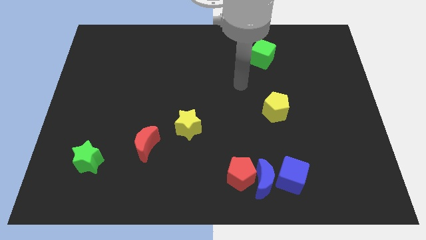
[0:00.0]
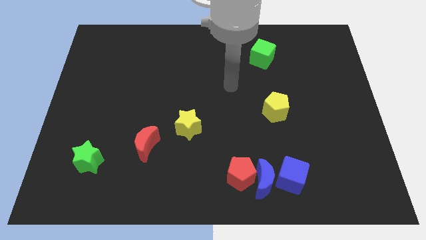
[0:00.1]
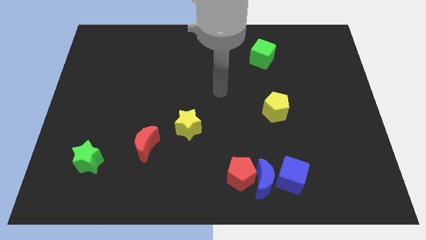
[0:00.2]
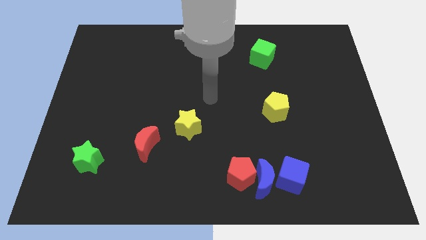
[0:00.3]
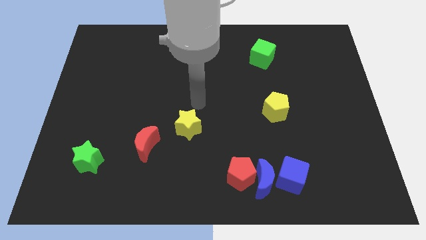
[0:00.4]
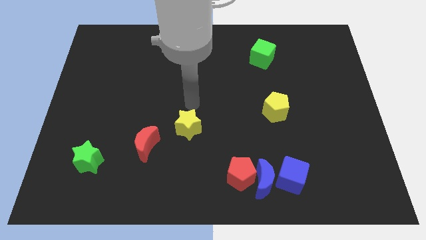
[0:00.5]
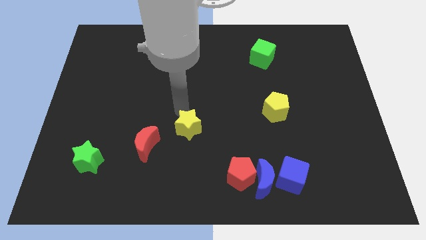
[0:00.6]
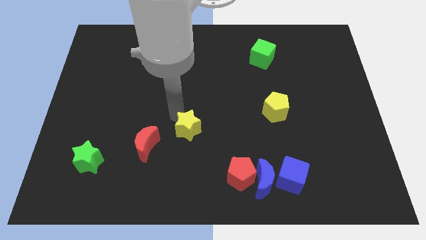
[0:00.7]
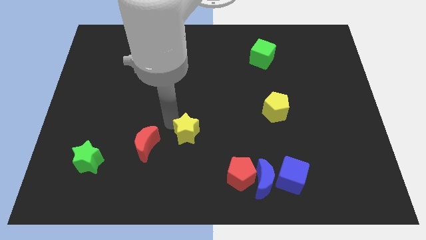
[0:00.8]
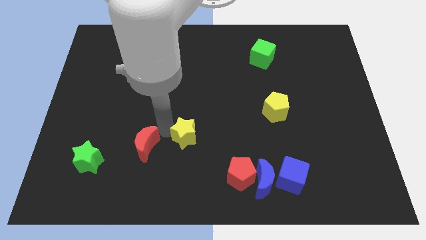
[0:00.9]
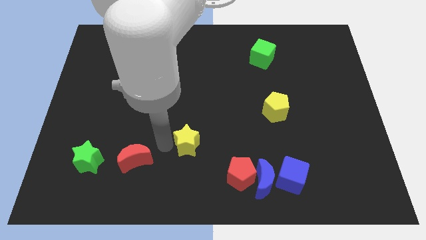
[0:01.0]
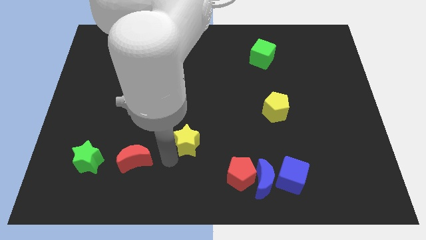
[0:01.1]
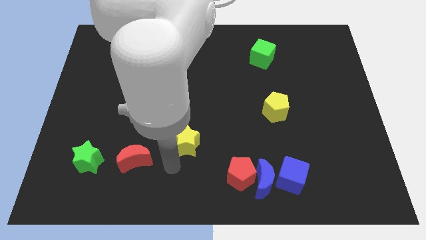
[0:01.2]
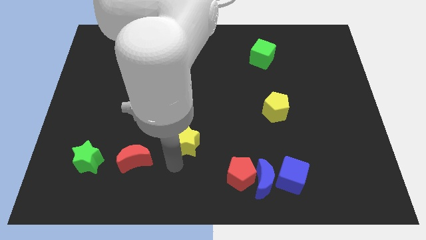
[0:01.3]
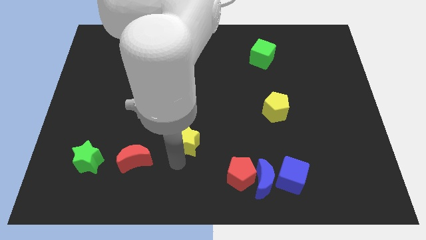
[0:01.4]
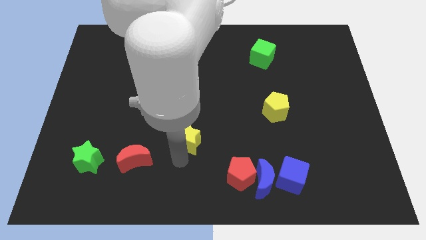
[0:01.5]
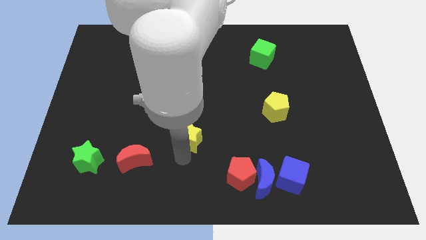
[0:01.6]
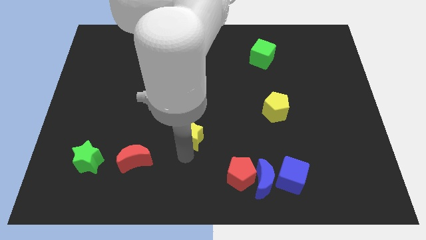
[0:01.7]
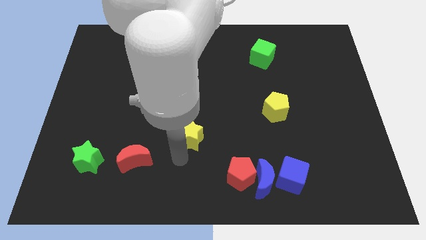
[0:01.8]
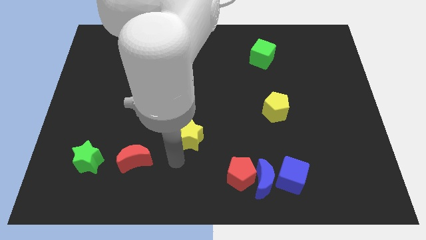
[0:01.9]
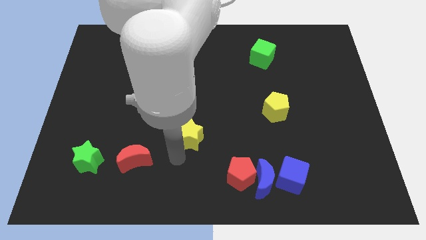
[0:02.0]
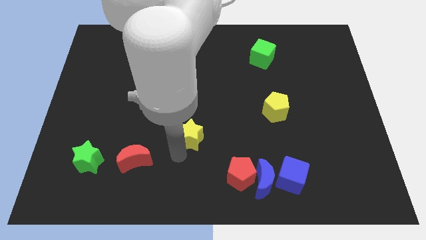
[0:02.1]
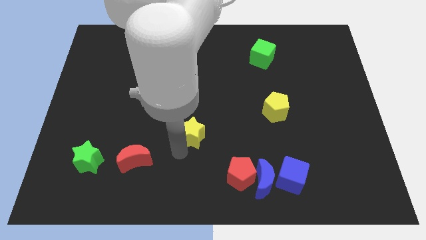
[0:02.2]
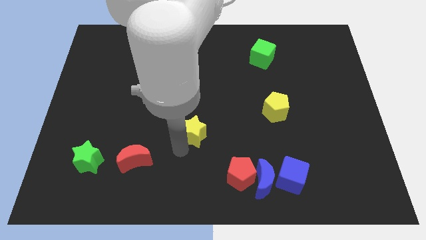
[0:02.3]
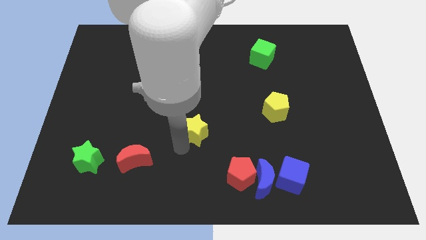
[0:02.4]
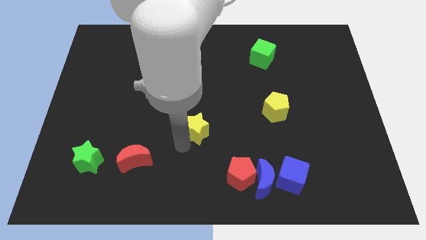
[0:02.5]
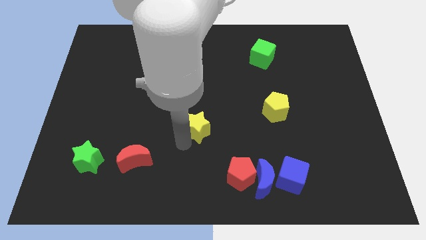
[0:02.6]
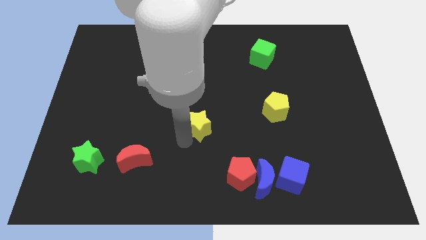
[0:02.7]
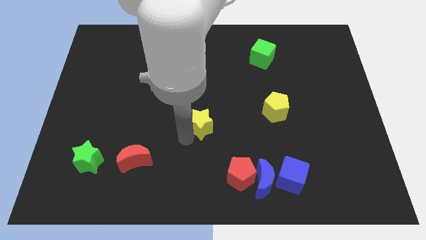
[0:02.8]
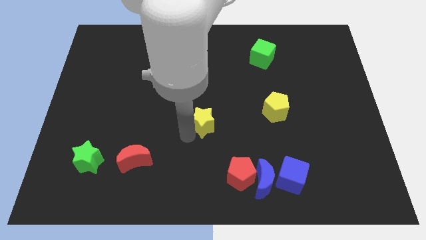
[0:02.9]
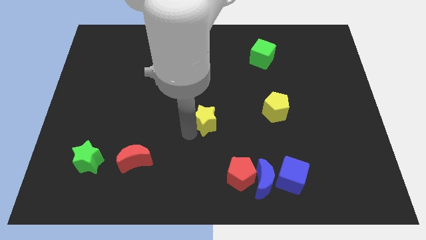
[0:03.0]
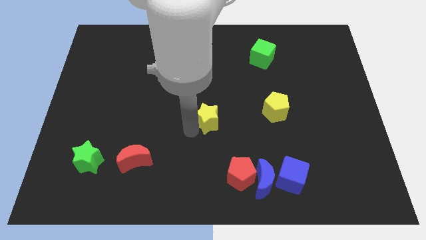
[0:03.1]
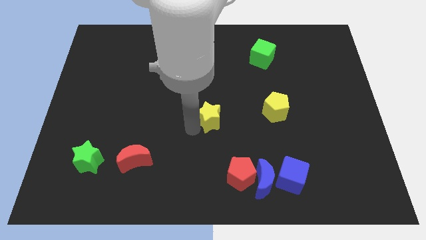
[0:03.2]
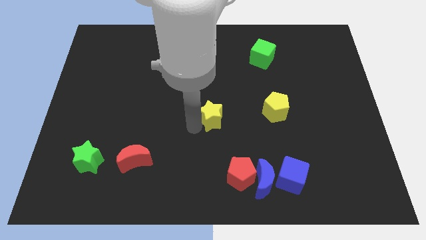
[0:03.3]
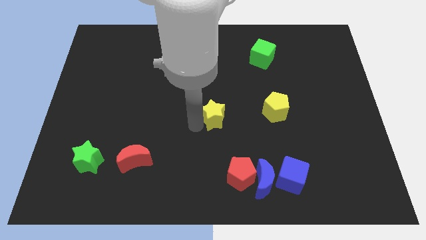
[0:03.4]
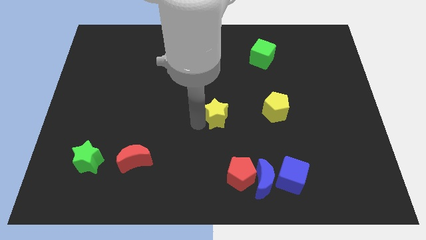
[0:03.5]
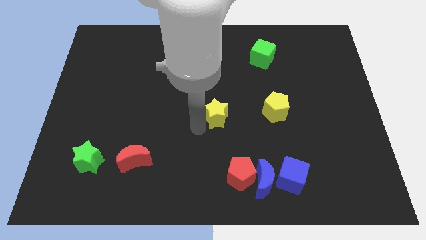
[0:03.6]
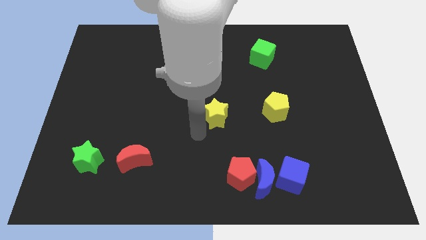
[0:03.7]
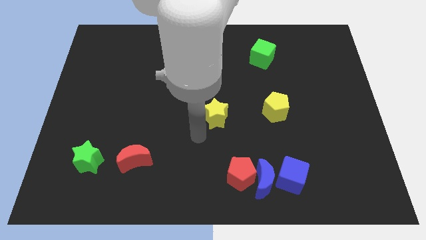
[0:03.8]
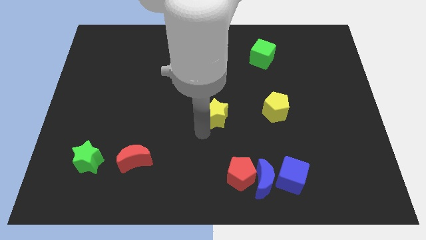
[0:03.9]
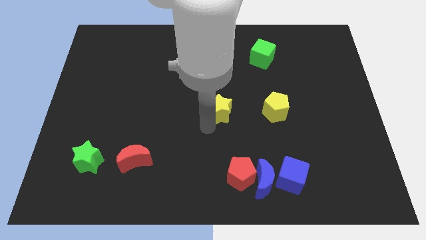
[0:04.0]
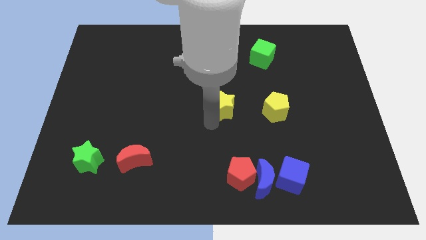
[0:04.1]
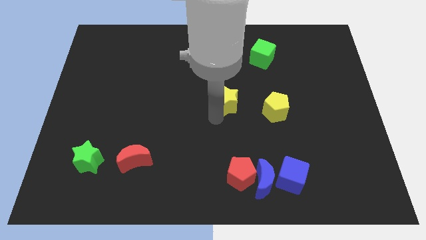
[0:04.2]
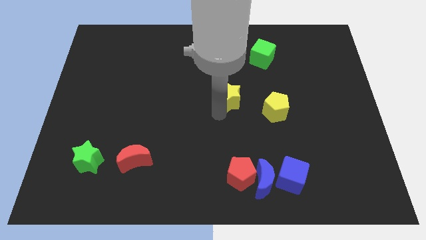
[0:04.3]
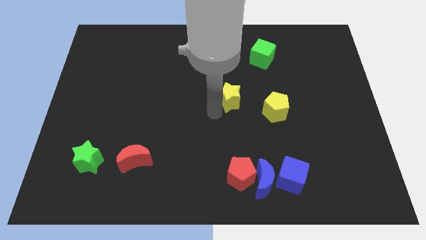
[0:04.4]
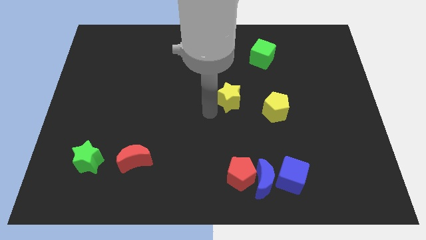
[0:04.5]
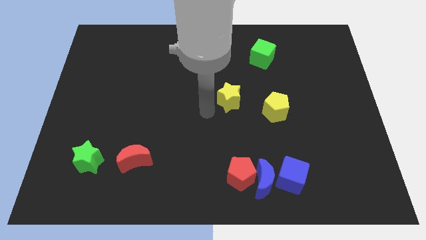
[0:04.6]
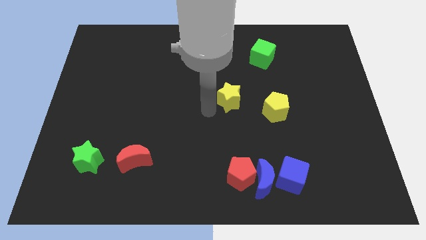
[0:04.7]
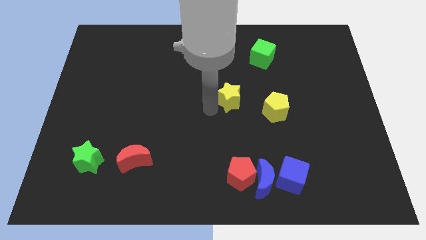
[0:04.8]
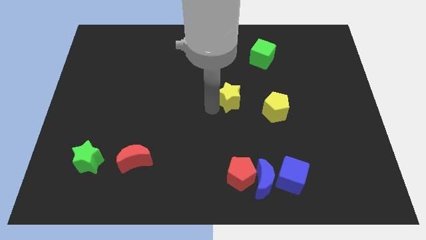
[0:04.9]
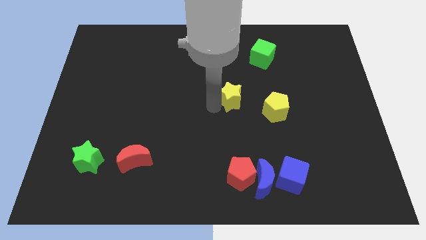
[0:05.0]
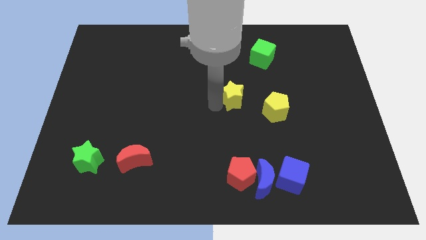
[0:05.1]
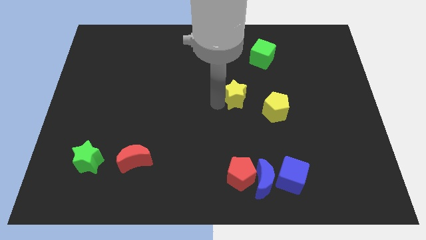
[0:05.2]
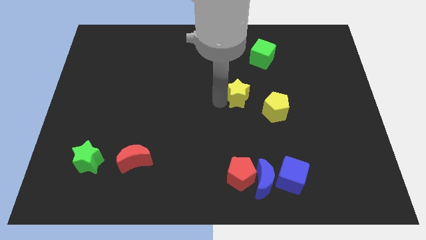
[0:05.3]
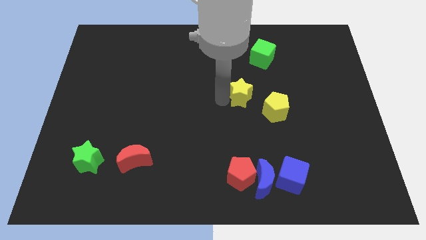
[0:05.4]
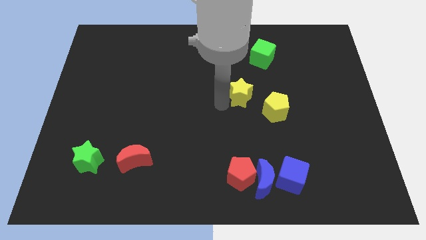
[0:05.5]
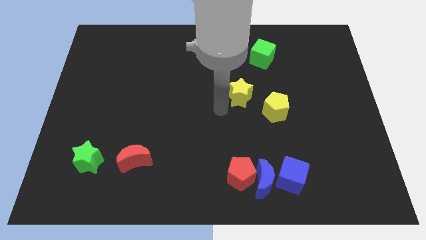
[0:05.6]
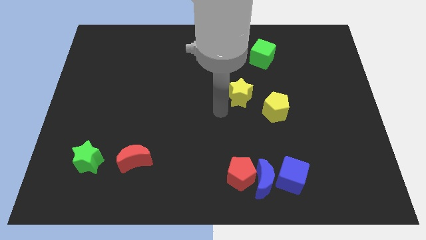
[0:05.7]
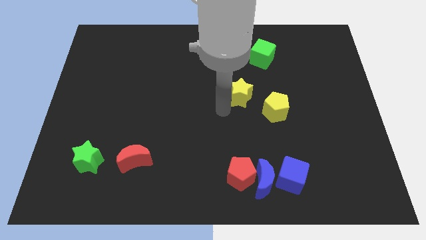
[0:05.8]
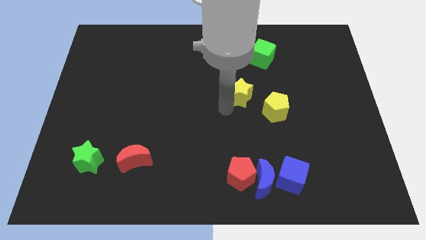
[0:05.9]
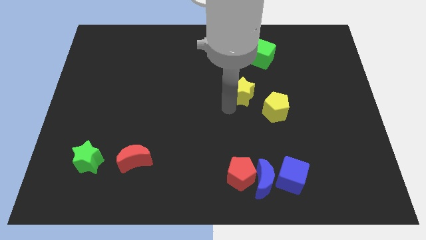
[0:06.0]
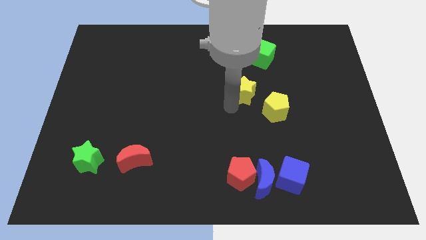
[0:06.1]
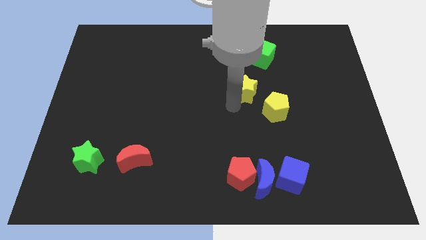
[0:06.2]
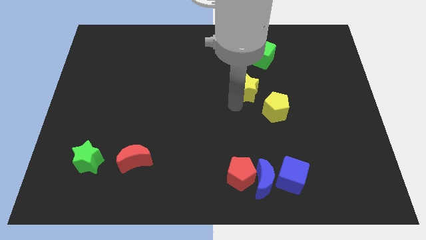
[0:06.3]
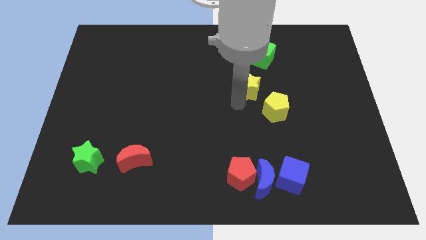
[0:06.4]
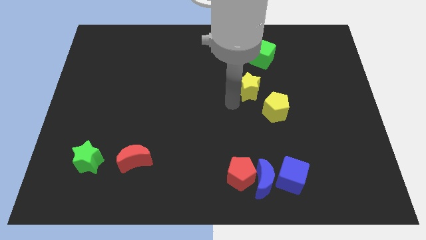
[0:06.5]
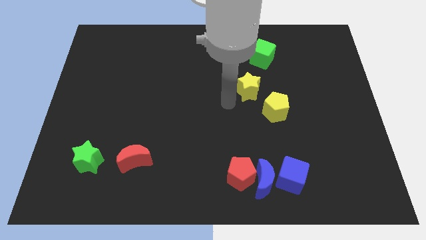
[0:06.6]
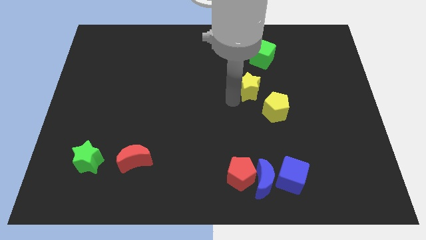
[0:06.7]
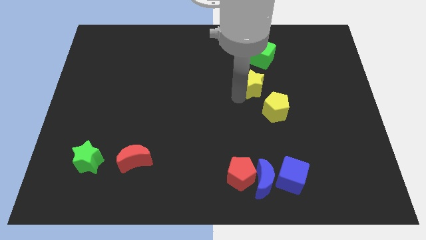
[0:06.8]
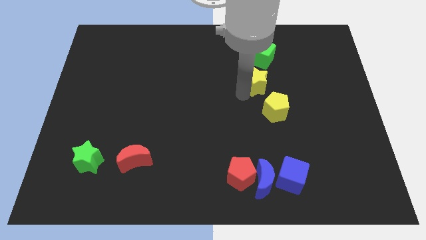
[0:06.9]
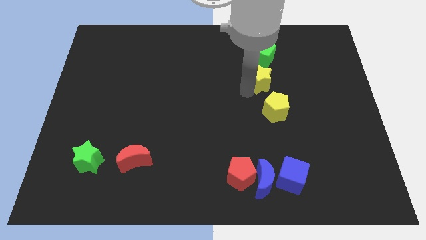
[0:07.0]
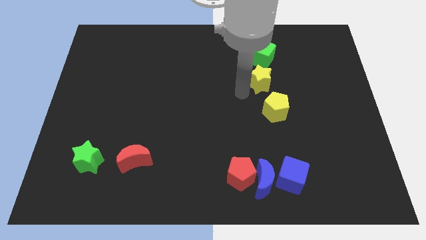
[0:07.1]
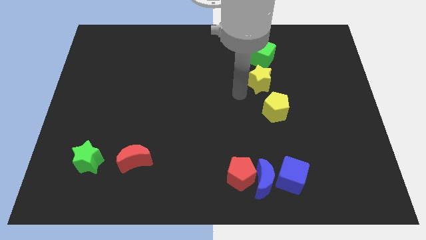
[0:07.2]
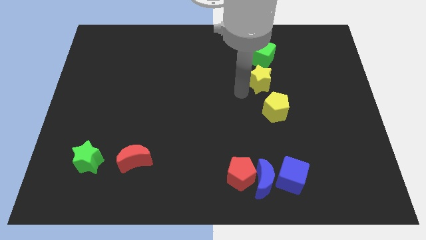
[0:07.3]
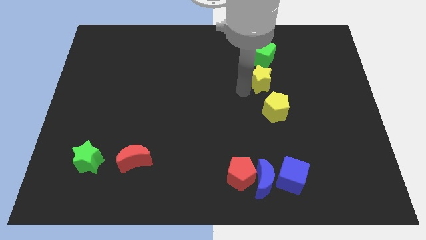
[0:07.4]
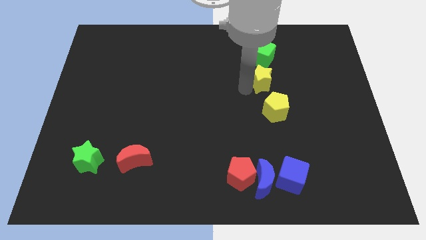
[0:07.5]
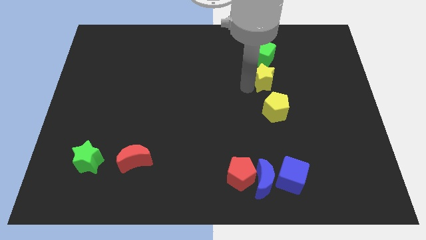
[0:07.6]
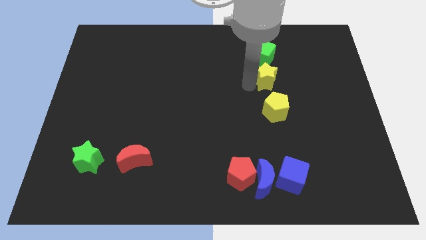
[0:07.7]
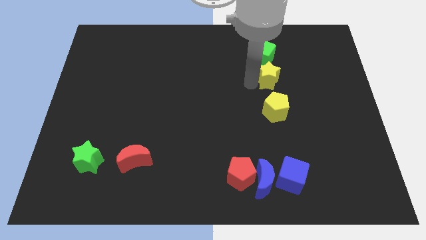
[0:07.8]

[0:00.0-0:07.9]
slide the yellow star to the bottom right side of the green cube

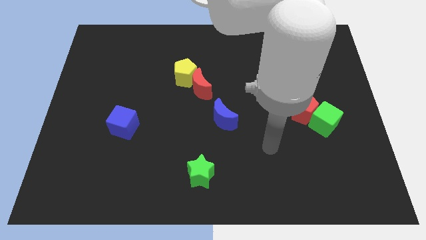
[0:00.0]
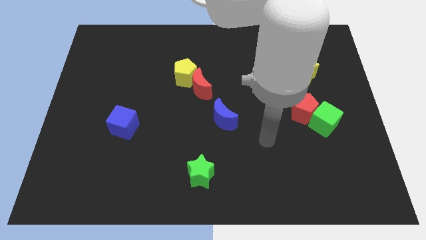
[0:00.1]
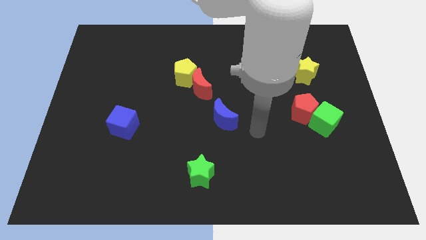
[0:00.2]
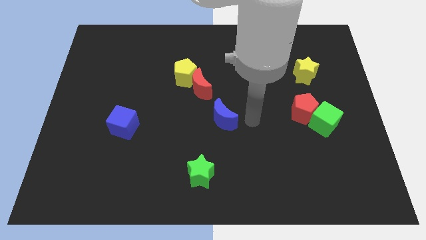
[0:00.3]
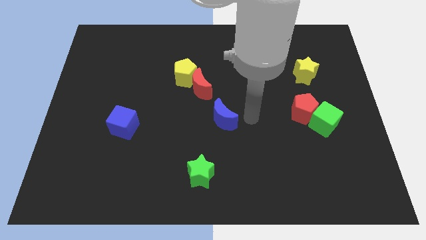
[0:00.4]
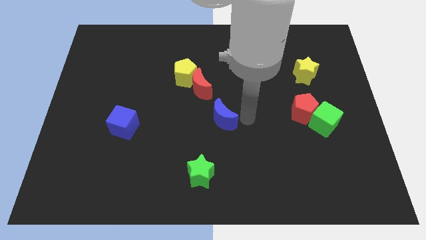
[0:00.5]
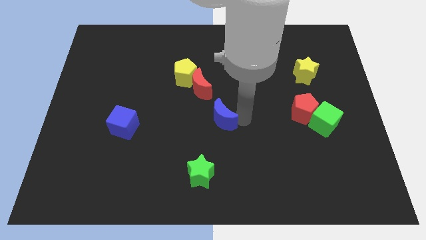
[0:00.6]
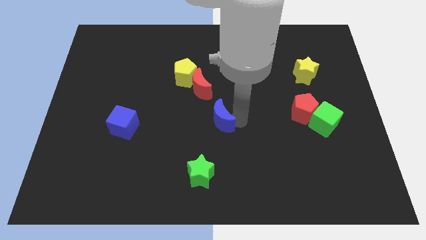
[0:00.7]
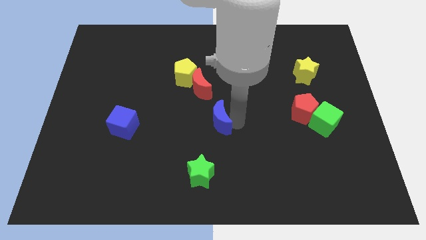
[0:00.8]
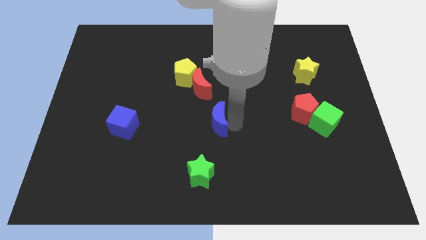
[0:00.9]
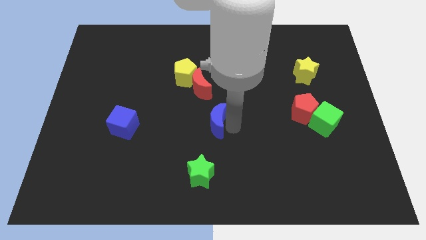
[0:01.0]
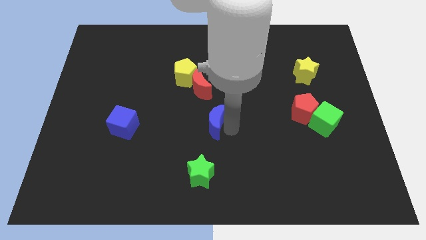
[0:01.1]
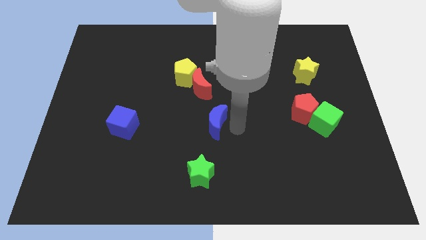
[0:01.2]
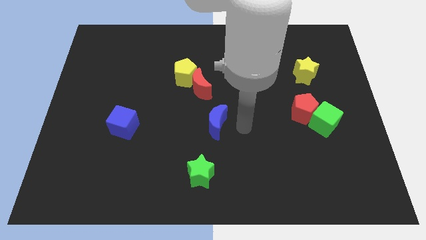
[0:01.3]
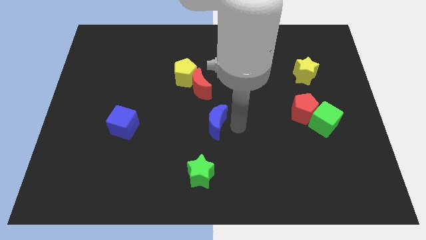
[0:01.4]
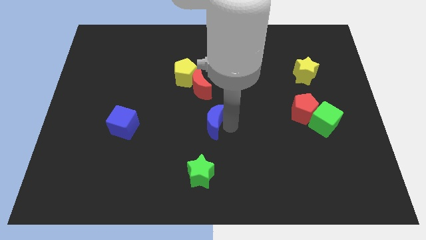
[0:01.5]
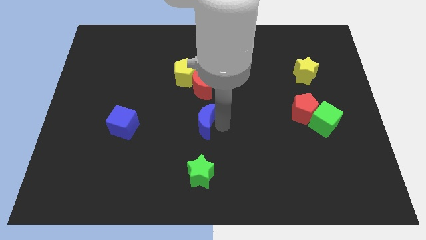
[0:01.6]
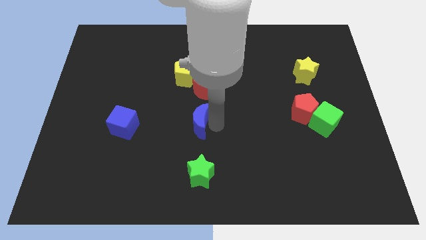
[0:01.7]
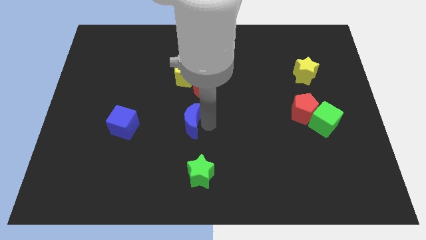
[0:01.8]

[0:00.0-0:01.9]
put the blue moon right of the blue cube
